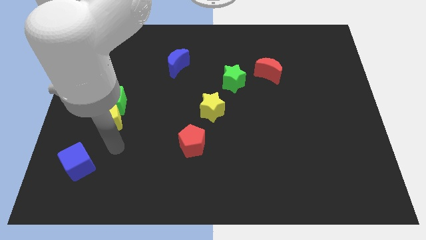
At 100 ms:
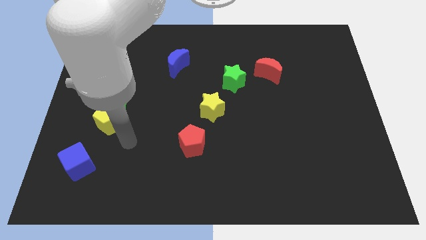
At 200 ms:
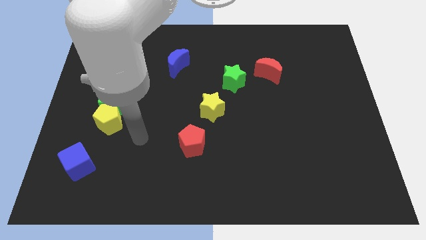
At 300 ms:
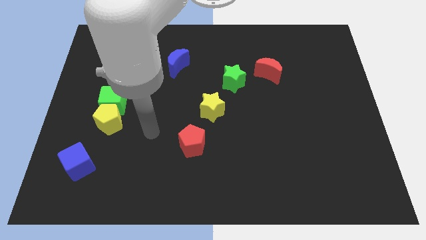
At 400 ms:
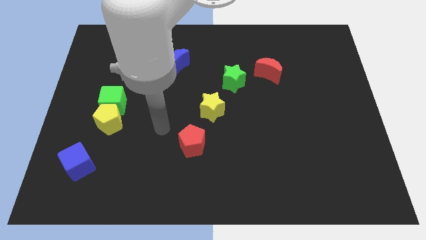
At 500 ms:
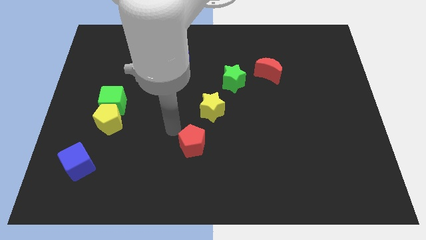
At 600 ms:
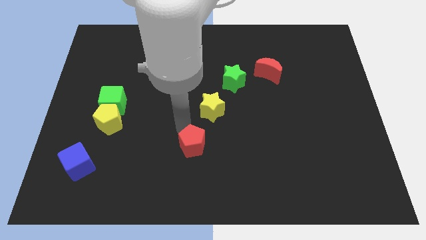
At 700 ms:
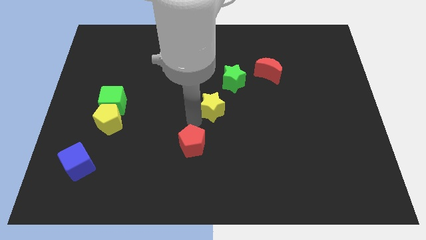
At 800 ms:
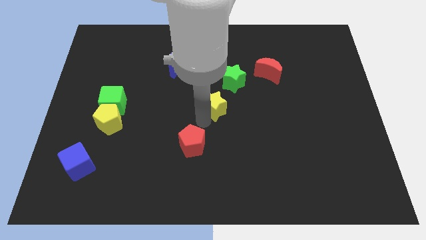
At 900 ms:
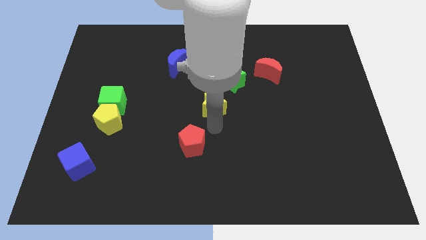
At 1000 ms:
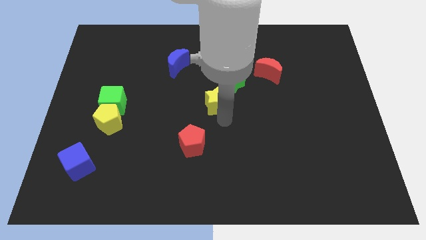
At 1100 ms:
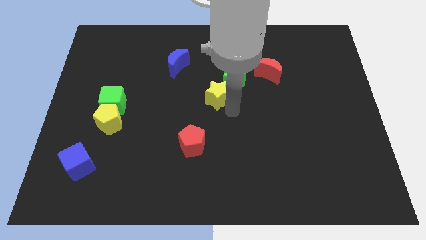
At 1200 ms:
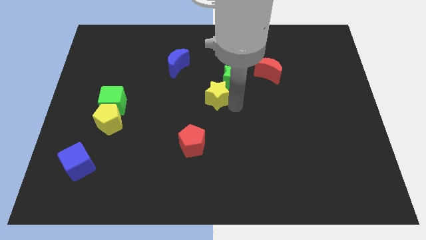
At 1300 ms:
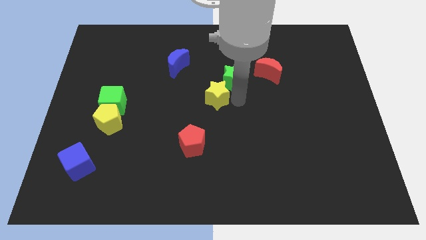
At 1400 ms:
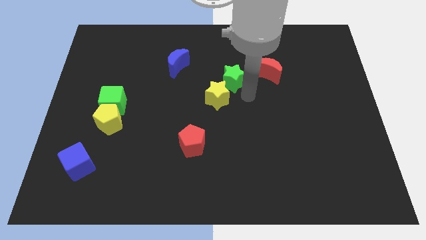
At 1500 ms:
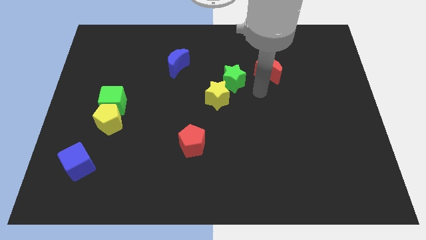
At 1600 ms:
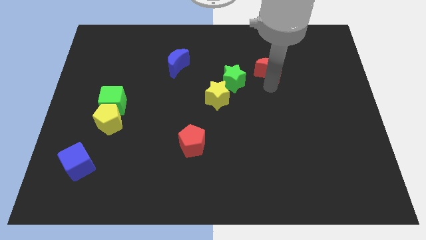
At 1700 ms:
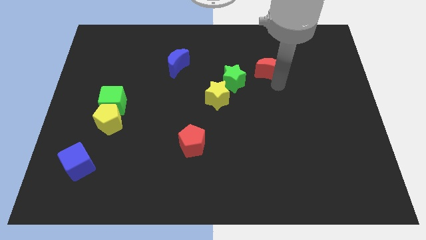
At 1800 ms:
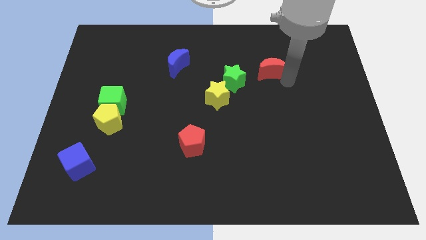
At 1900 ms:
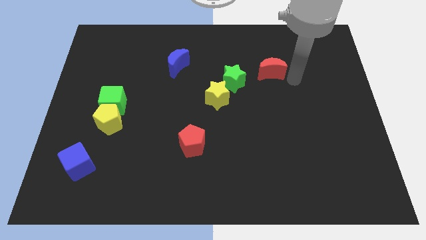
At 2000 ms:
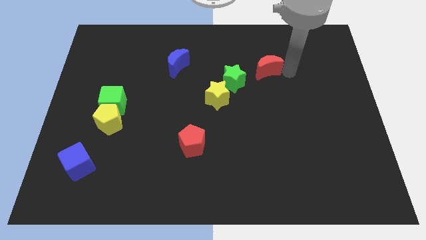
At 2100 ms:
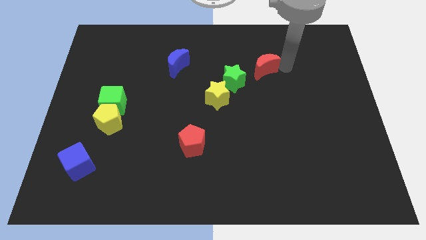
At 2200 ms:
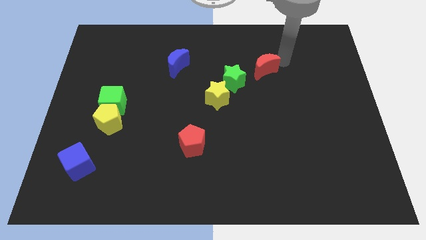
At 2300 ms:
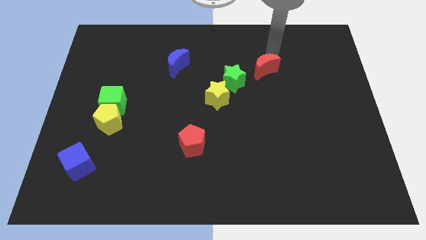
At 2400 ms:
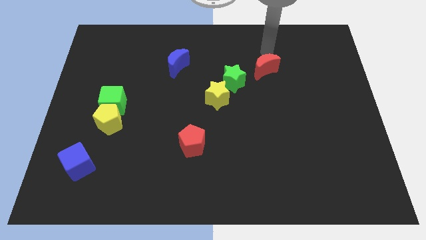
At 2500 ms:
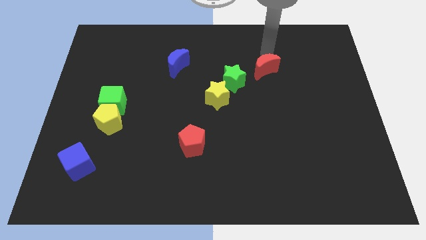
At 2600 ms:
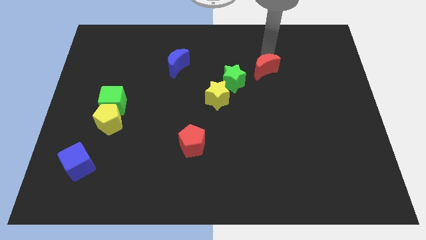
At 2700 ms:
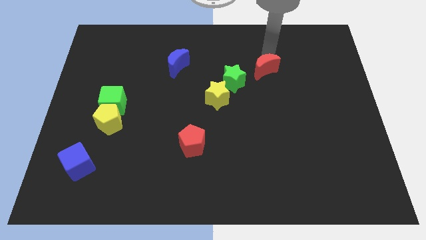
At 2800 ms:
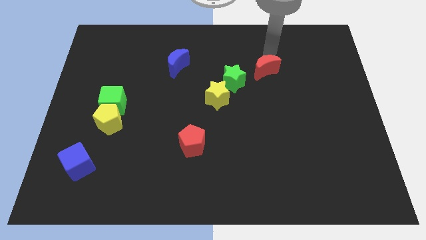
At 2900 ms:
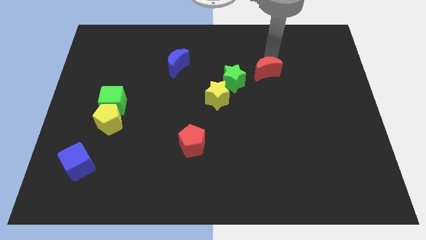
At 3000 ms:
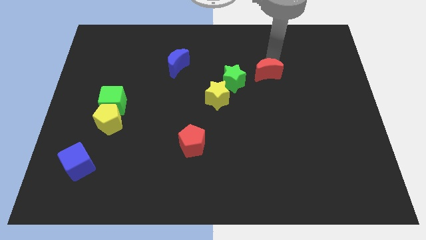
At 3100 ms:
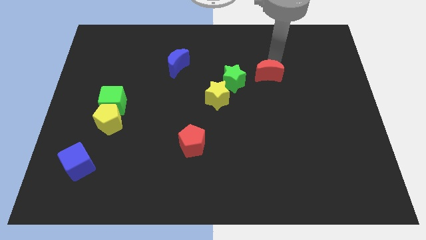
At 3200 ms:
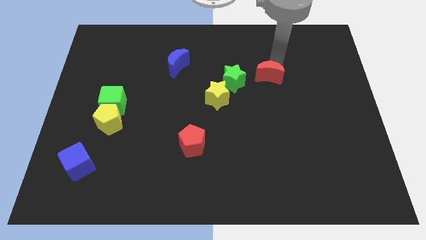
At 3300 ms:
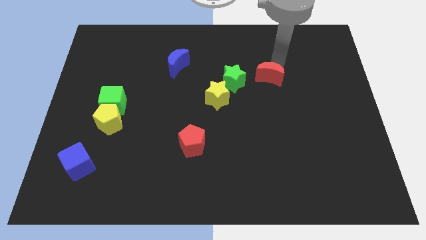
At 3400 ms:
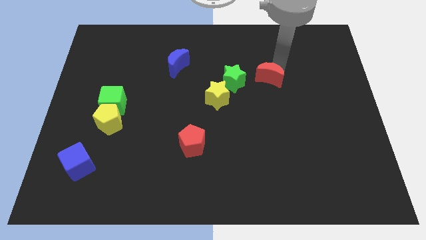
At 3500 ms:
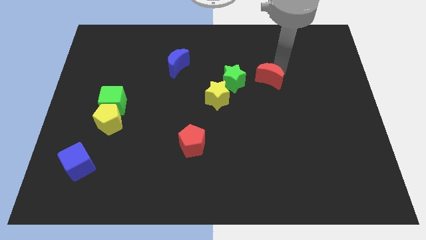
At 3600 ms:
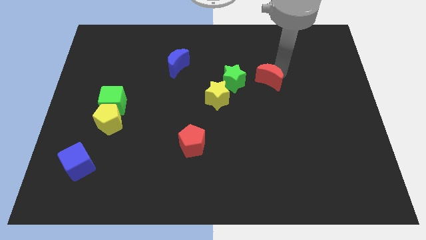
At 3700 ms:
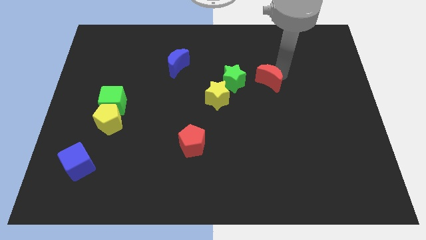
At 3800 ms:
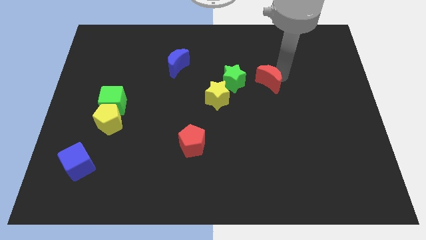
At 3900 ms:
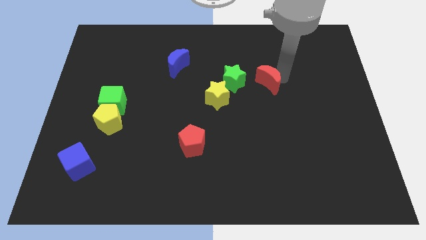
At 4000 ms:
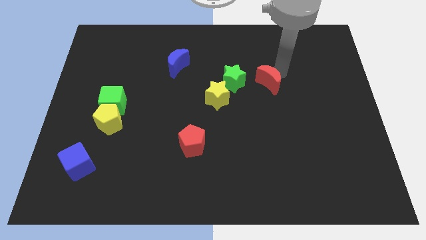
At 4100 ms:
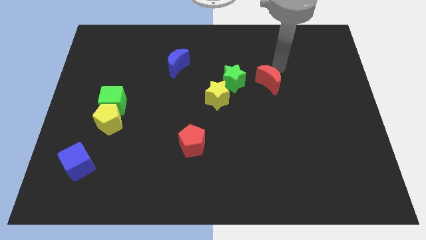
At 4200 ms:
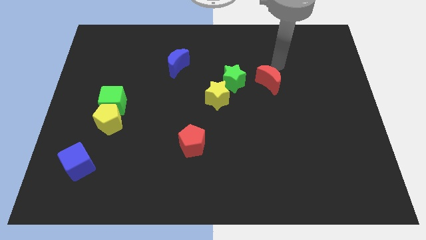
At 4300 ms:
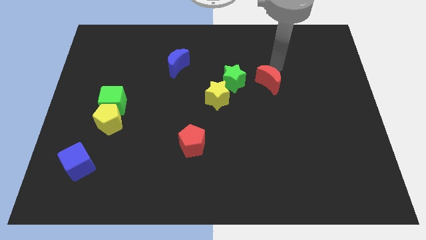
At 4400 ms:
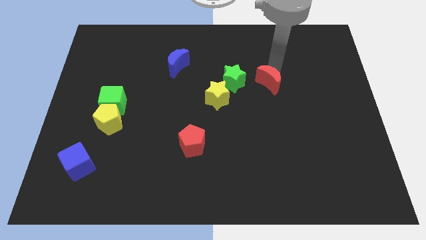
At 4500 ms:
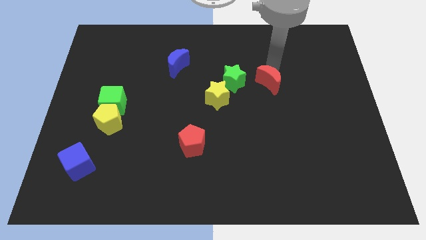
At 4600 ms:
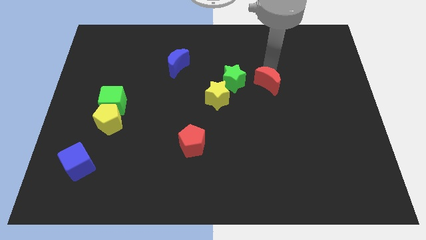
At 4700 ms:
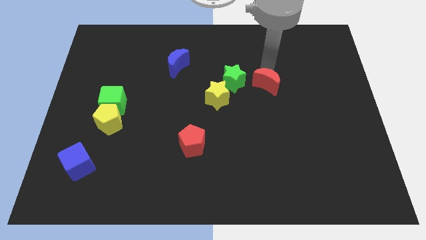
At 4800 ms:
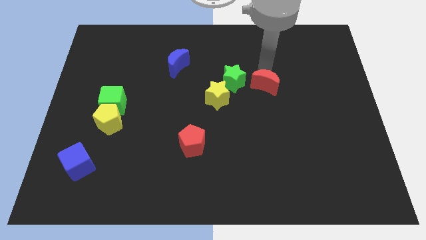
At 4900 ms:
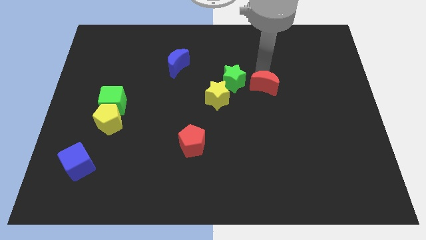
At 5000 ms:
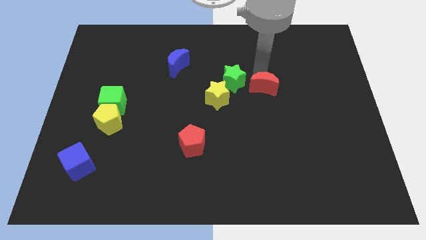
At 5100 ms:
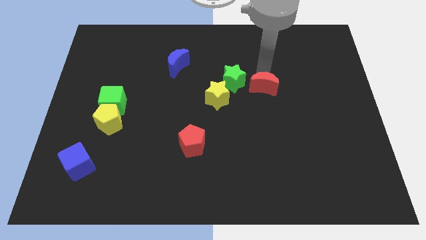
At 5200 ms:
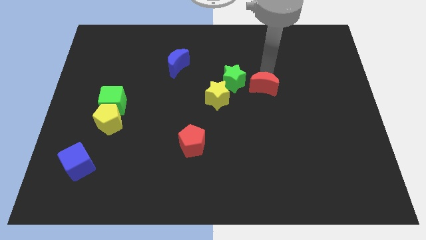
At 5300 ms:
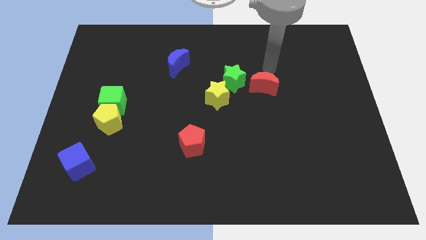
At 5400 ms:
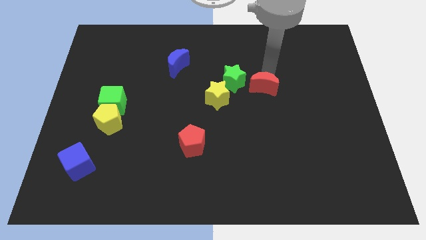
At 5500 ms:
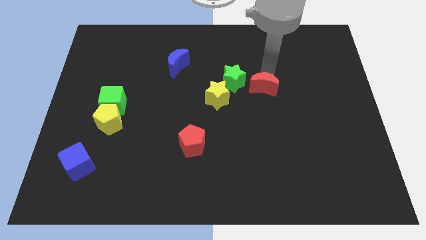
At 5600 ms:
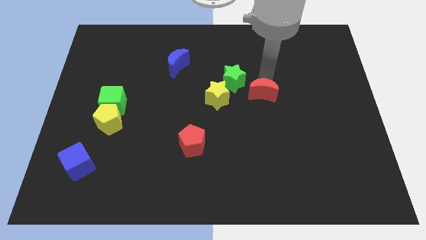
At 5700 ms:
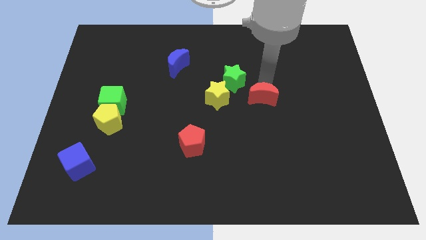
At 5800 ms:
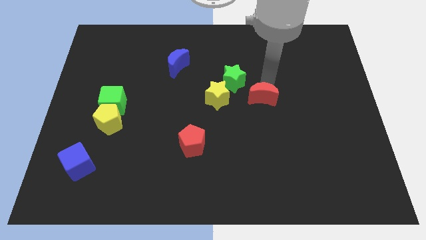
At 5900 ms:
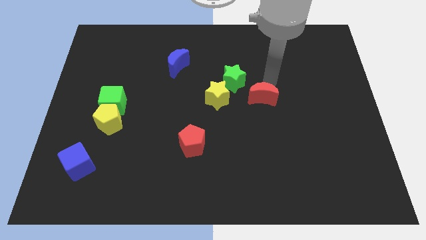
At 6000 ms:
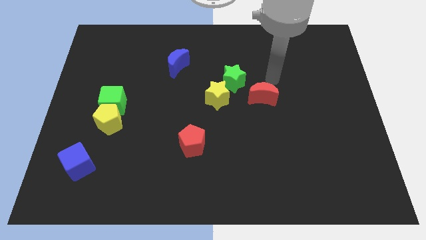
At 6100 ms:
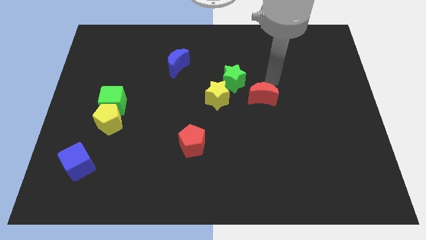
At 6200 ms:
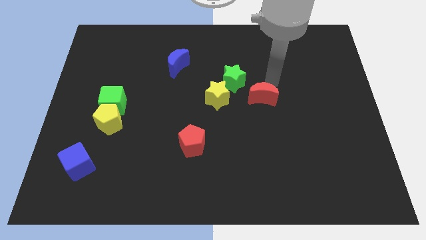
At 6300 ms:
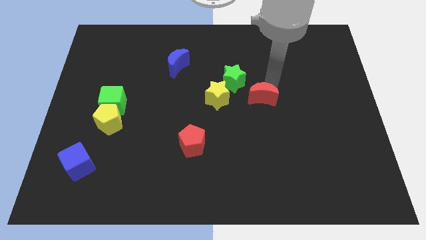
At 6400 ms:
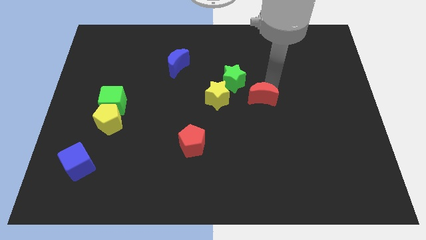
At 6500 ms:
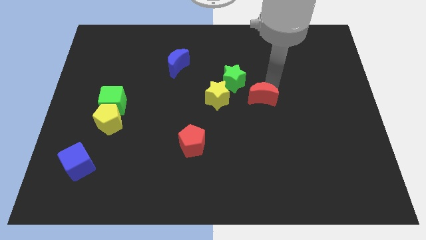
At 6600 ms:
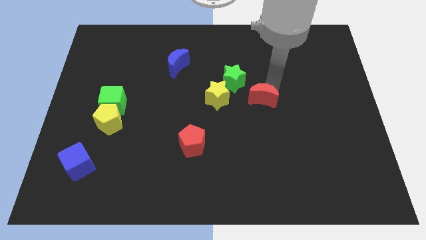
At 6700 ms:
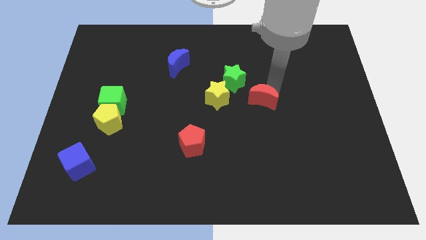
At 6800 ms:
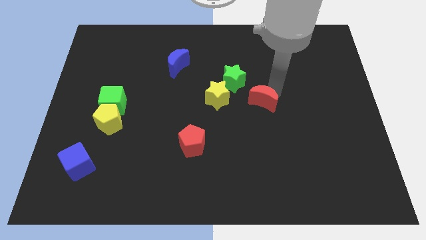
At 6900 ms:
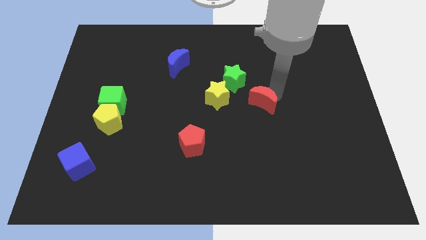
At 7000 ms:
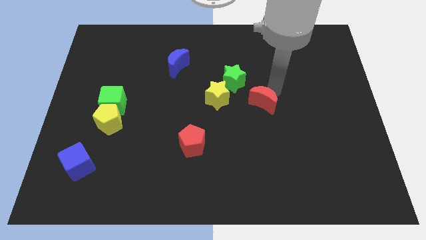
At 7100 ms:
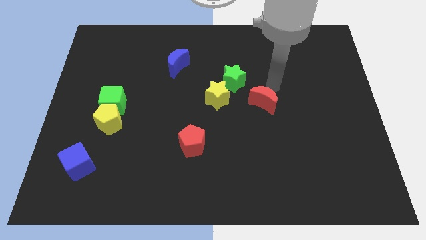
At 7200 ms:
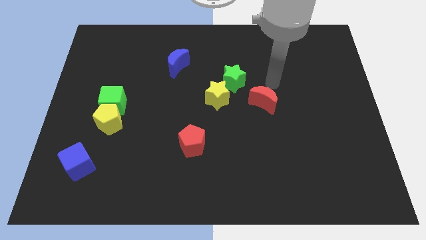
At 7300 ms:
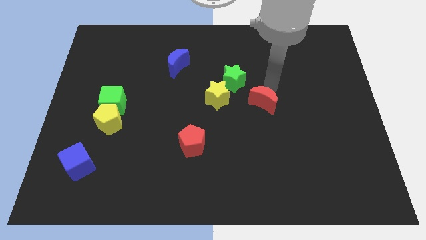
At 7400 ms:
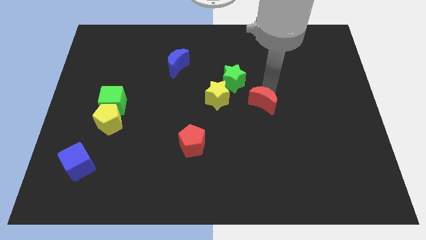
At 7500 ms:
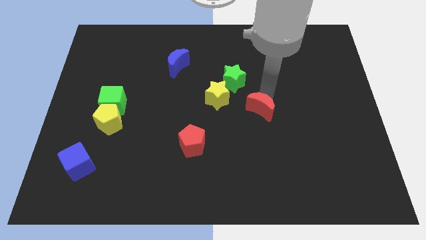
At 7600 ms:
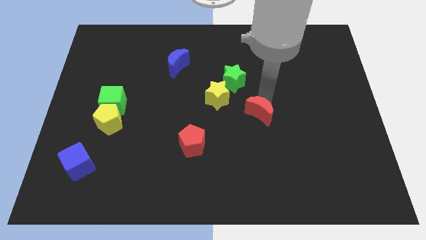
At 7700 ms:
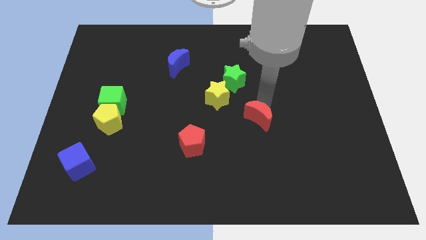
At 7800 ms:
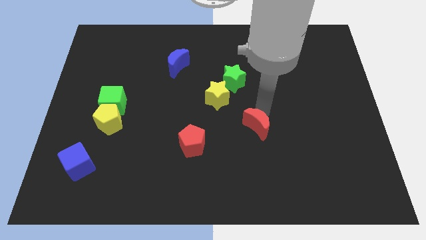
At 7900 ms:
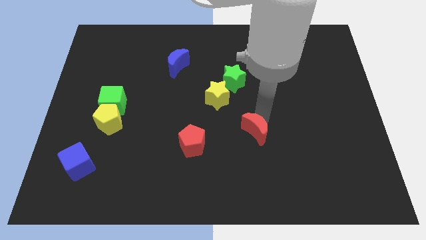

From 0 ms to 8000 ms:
push the red moon to the right of the red pentagon

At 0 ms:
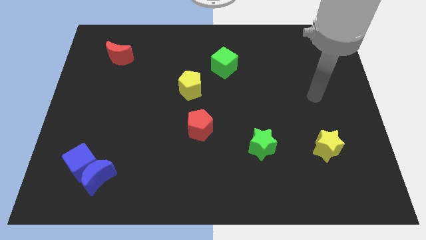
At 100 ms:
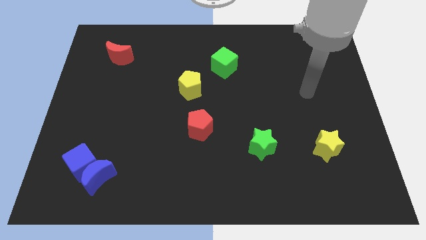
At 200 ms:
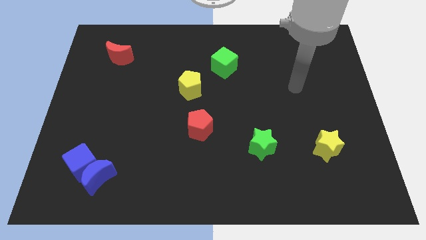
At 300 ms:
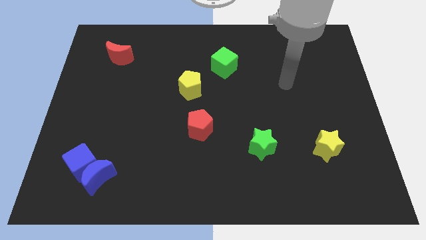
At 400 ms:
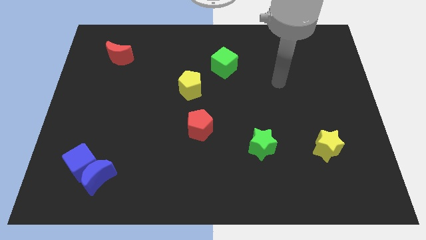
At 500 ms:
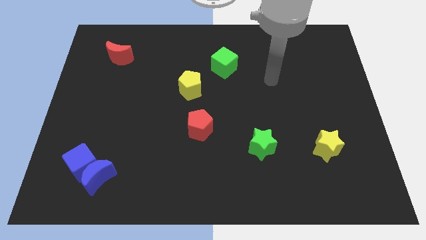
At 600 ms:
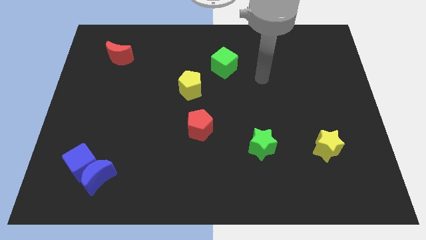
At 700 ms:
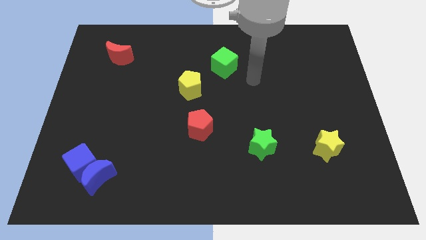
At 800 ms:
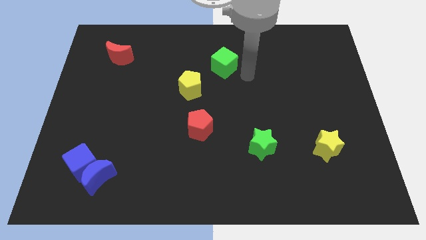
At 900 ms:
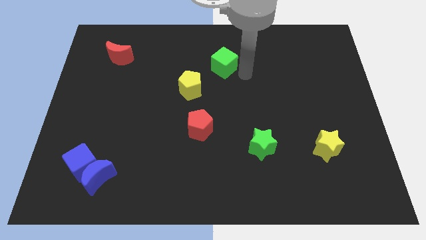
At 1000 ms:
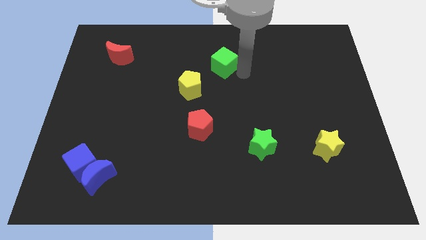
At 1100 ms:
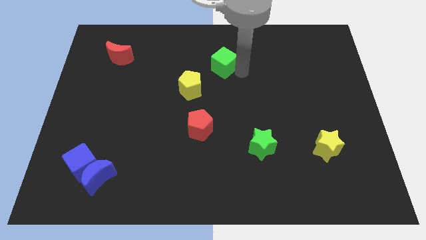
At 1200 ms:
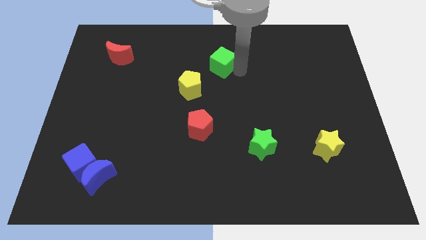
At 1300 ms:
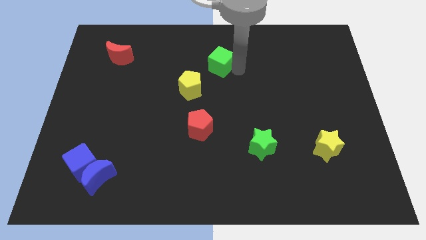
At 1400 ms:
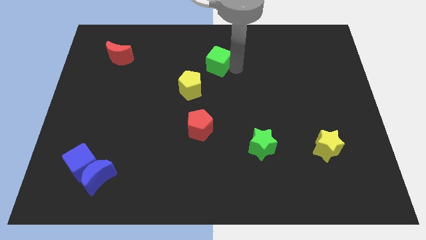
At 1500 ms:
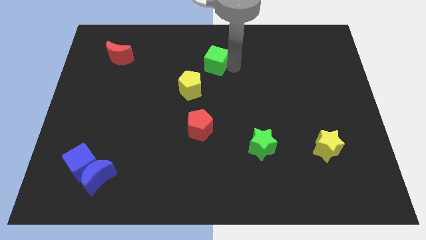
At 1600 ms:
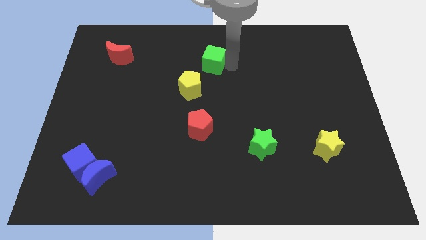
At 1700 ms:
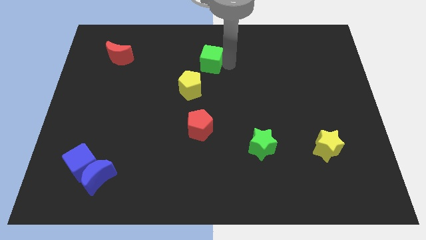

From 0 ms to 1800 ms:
slide the green cube to the top side of the yellow pentagon
